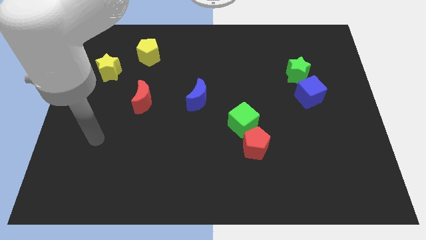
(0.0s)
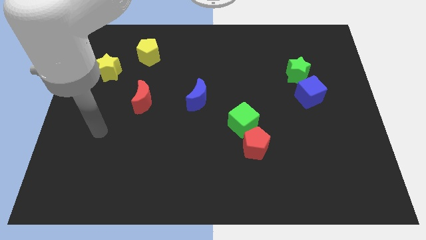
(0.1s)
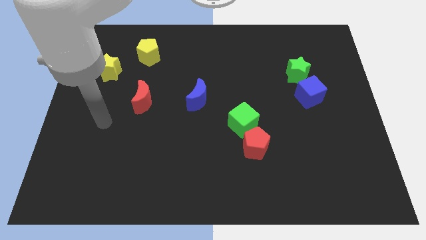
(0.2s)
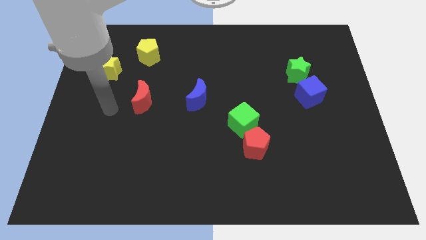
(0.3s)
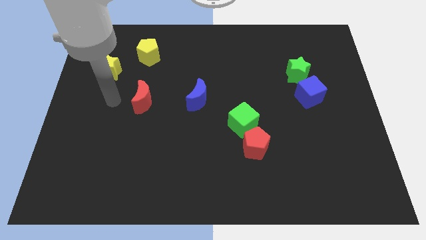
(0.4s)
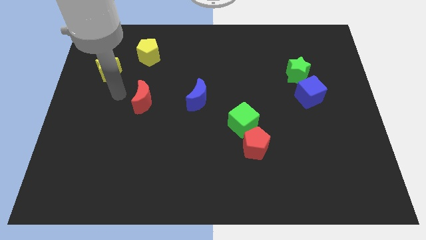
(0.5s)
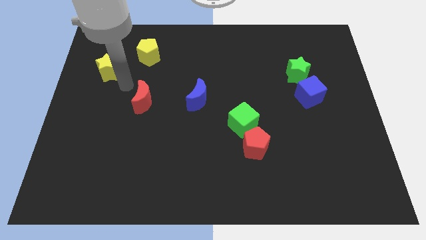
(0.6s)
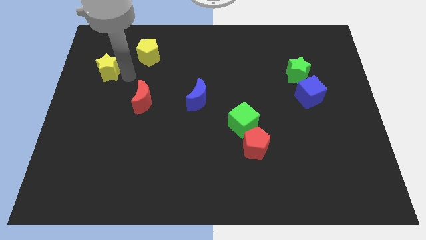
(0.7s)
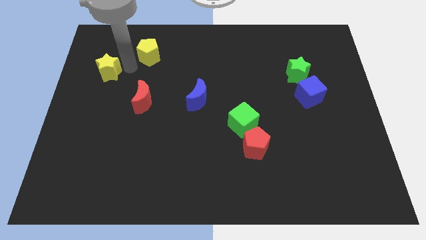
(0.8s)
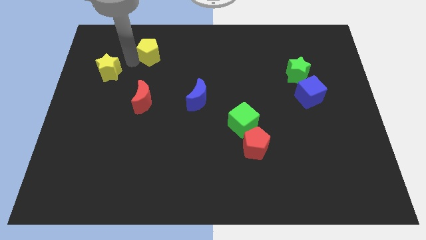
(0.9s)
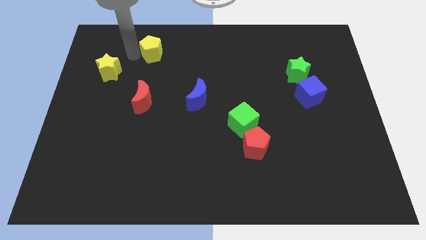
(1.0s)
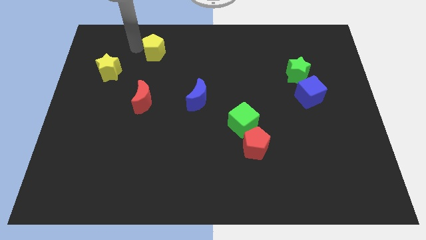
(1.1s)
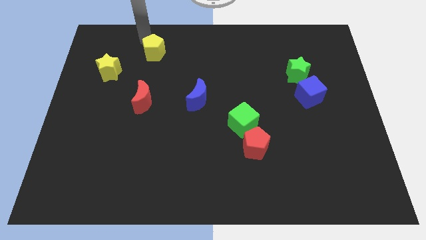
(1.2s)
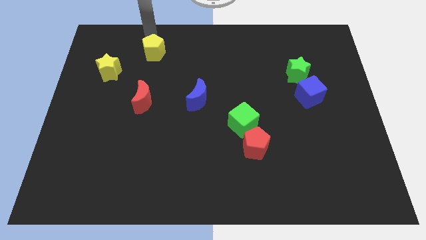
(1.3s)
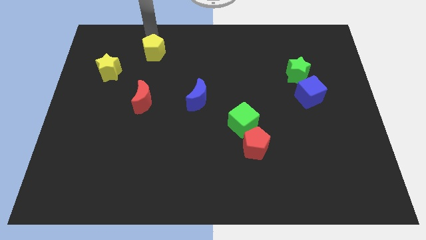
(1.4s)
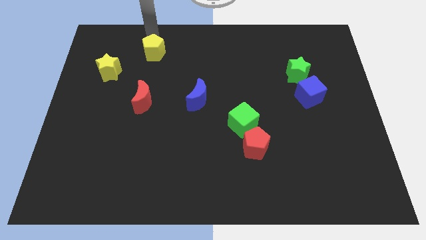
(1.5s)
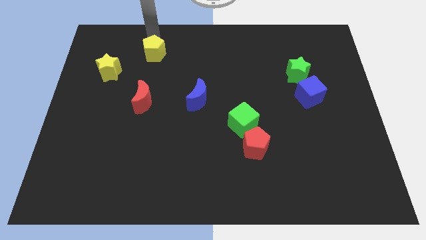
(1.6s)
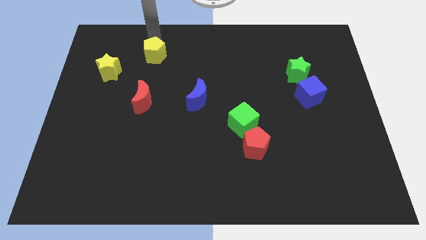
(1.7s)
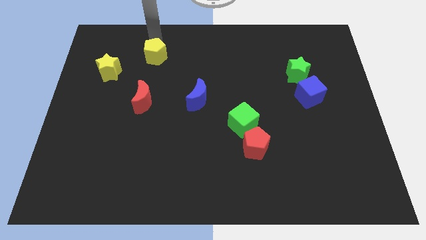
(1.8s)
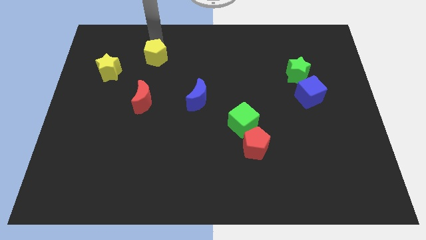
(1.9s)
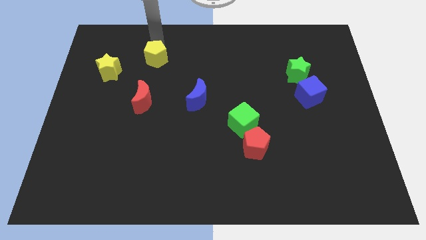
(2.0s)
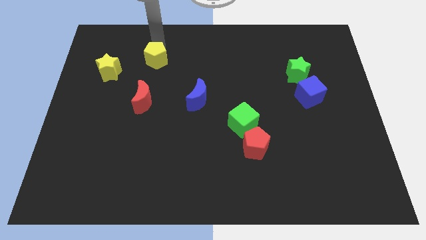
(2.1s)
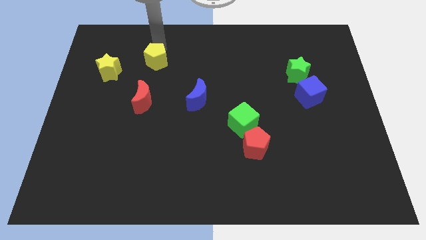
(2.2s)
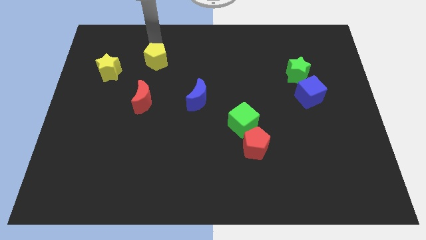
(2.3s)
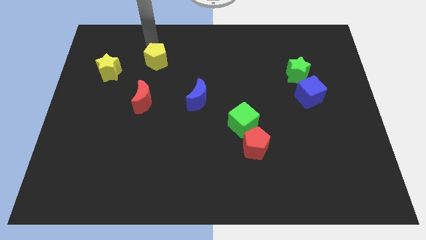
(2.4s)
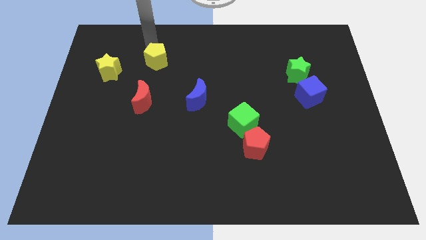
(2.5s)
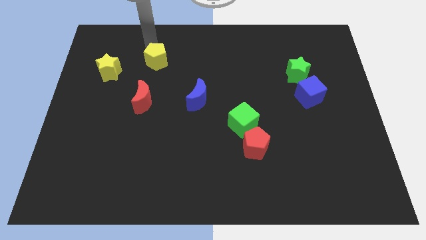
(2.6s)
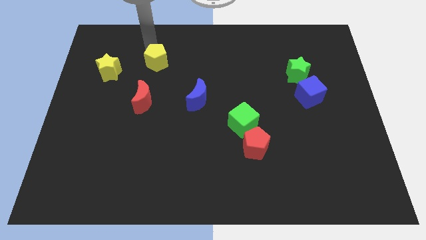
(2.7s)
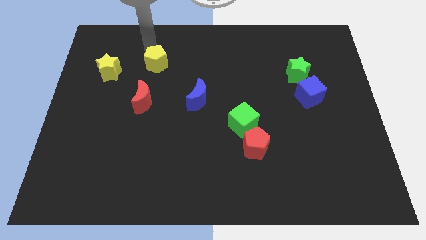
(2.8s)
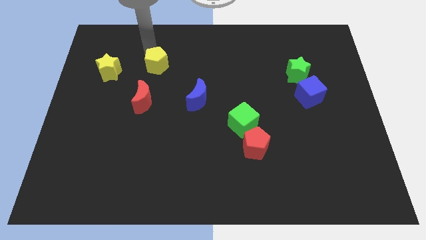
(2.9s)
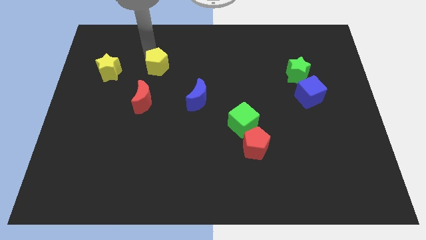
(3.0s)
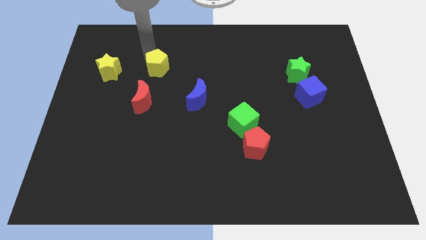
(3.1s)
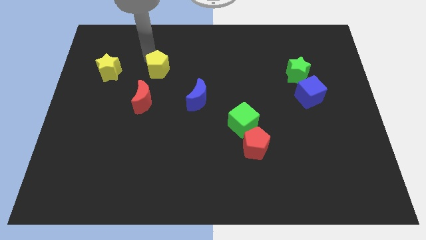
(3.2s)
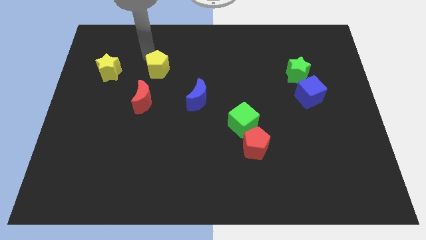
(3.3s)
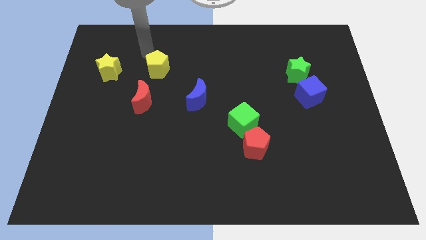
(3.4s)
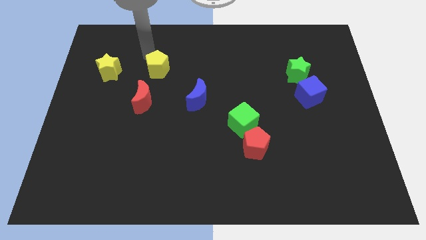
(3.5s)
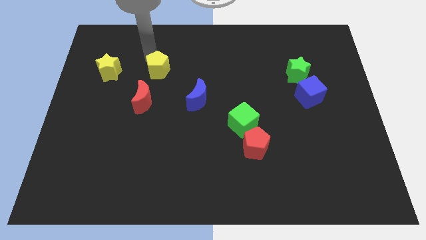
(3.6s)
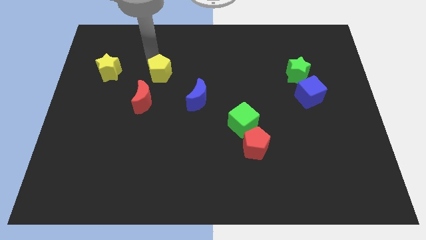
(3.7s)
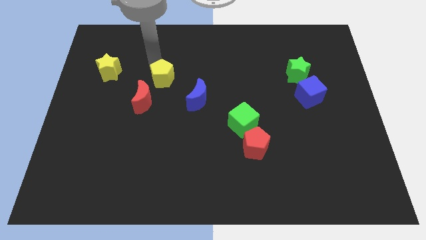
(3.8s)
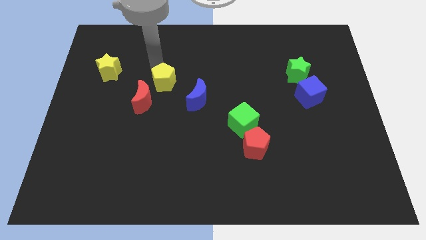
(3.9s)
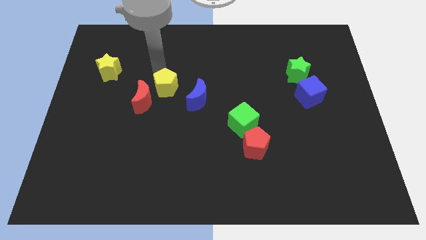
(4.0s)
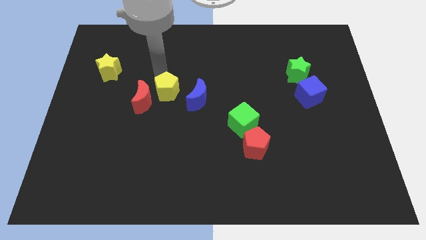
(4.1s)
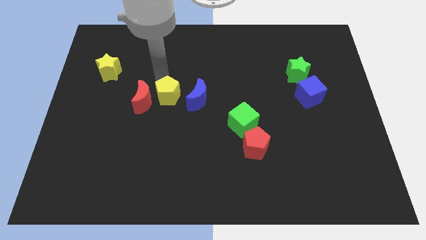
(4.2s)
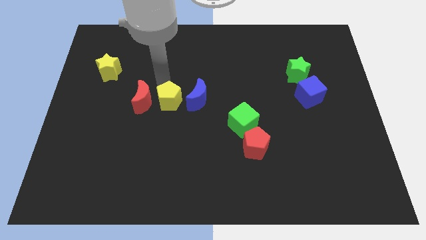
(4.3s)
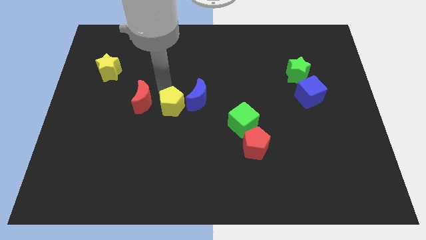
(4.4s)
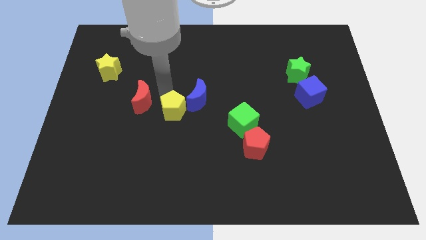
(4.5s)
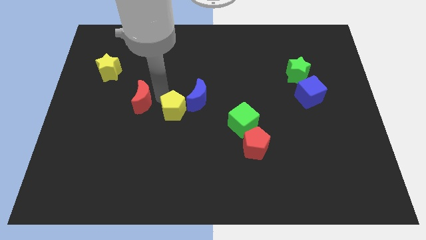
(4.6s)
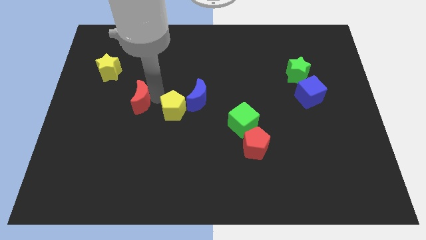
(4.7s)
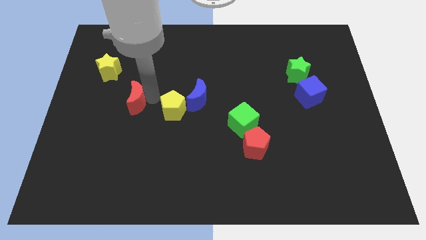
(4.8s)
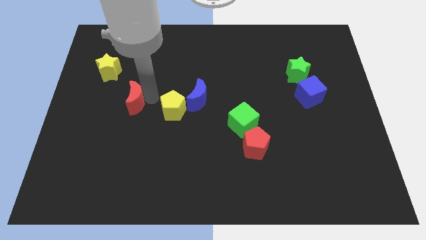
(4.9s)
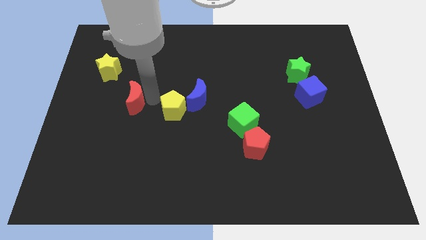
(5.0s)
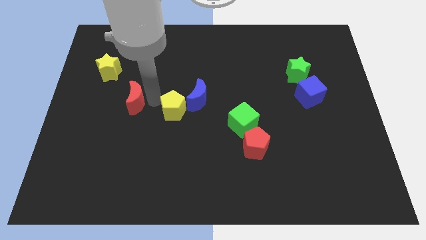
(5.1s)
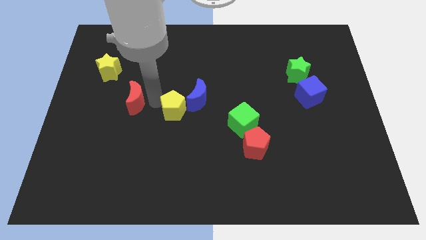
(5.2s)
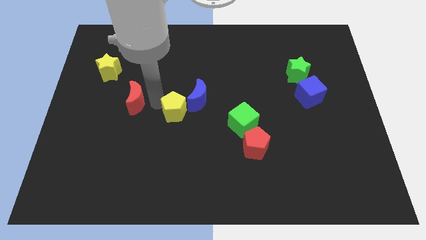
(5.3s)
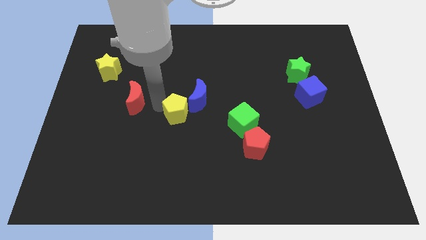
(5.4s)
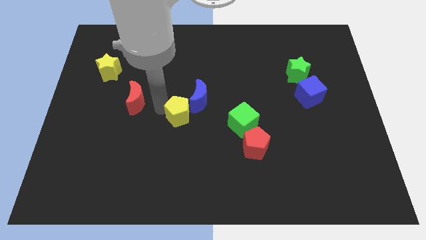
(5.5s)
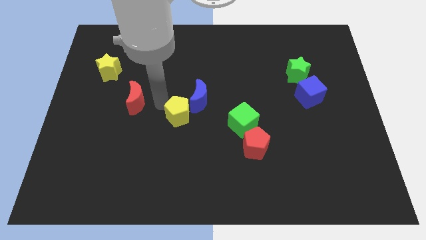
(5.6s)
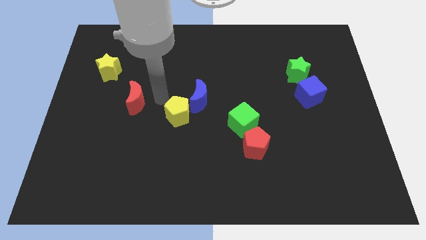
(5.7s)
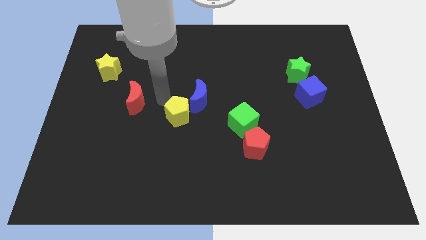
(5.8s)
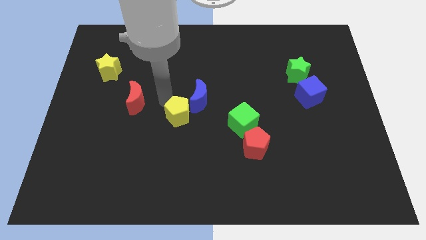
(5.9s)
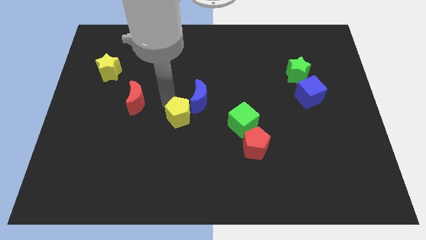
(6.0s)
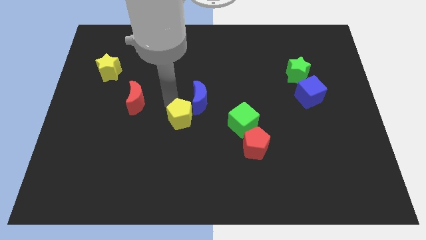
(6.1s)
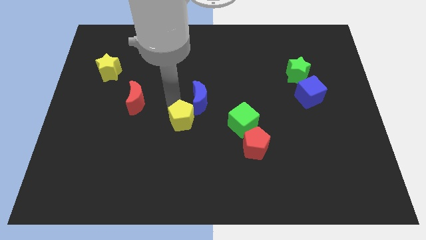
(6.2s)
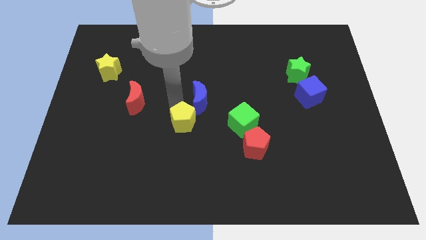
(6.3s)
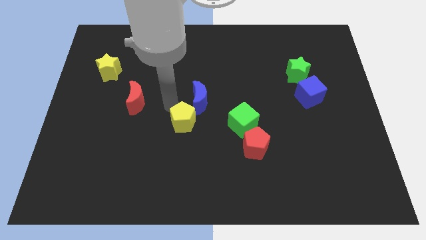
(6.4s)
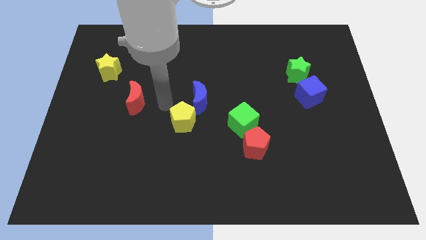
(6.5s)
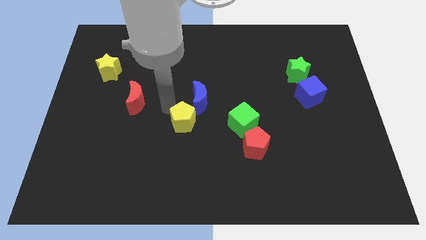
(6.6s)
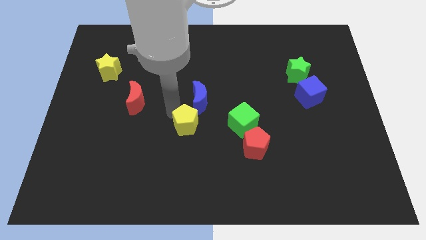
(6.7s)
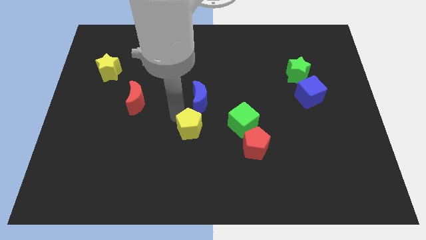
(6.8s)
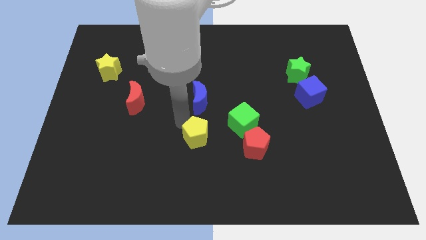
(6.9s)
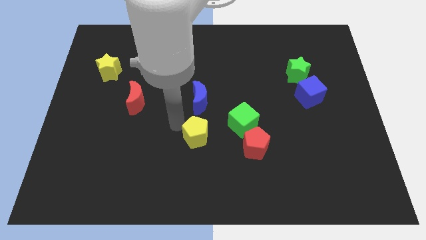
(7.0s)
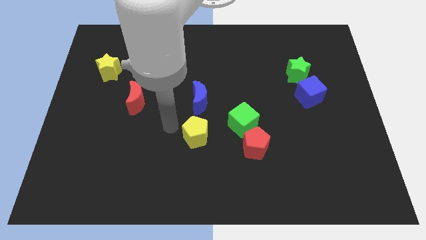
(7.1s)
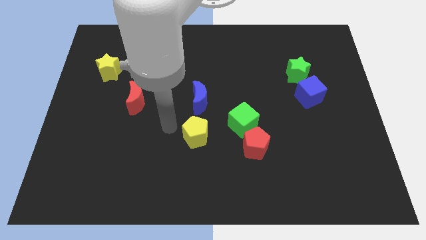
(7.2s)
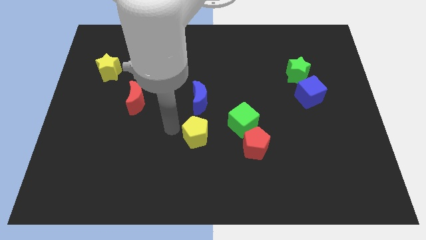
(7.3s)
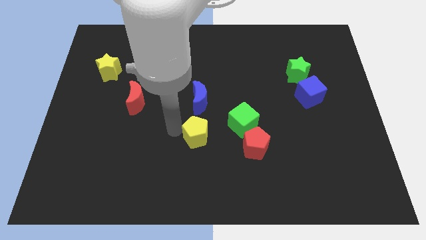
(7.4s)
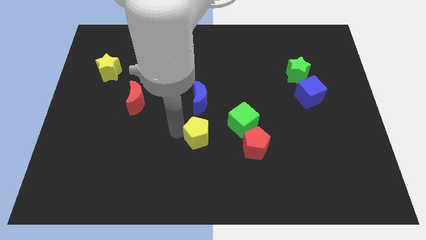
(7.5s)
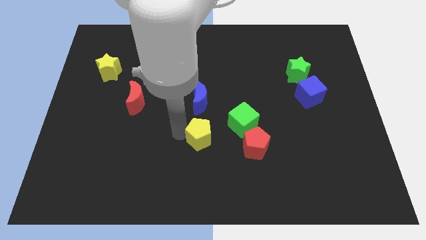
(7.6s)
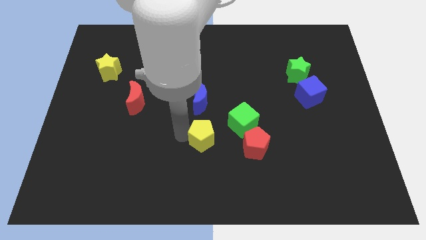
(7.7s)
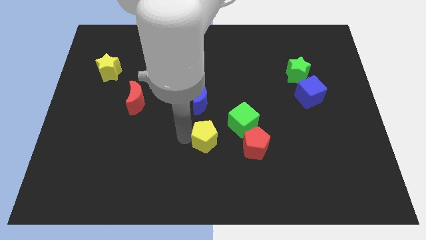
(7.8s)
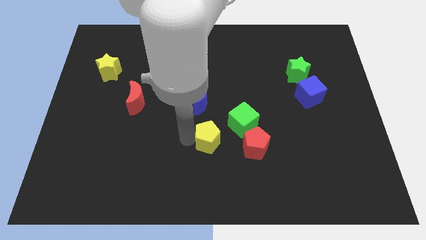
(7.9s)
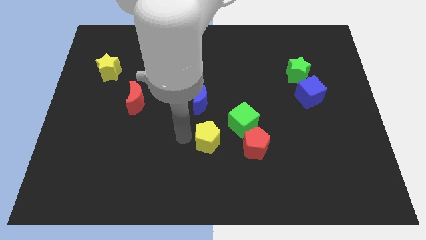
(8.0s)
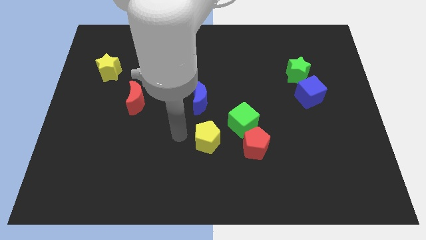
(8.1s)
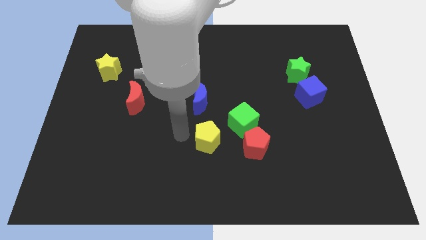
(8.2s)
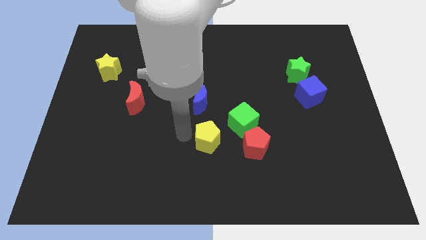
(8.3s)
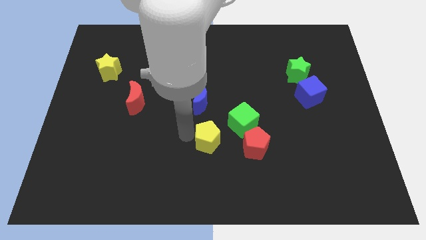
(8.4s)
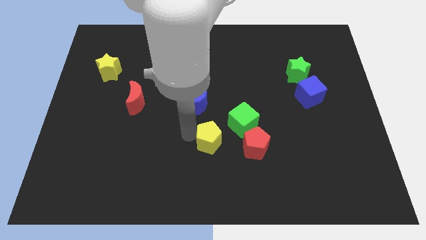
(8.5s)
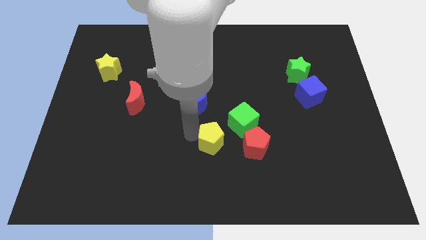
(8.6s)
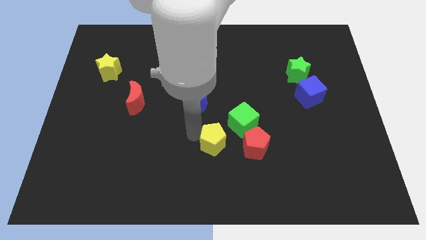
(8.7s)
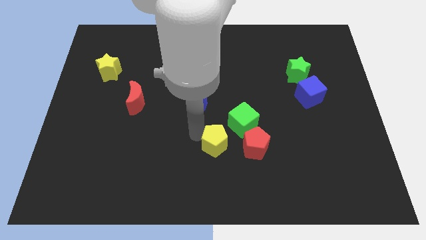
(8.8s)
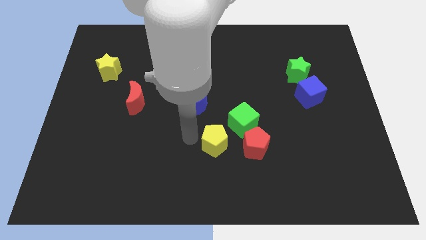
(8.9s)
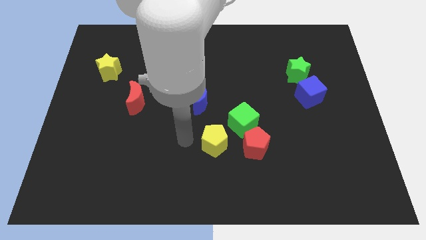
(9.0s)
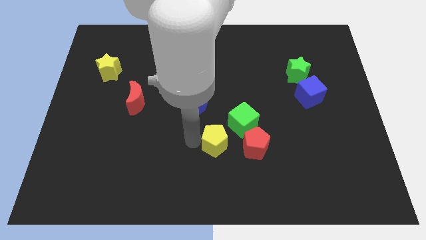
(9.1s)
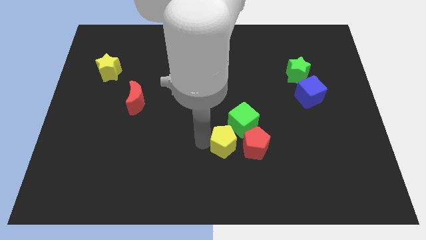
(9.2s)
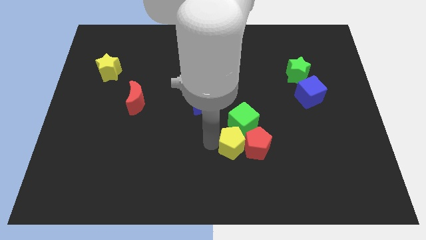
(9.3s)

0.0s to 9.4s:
move the yellow pentagon close to the red pentagon
